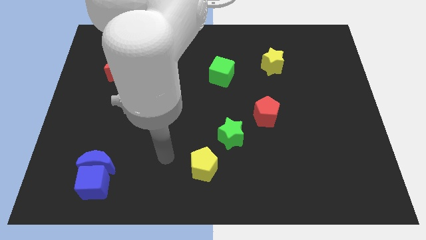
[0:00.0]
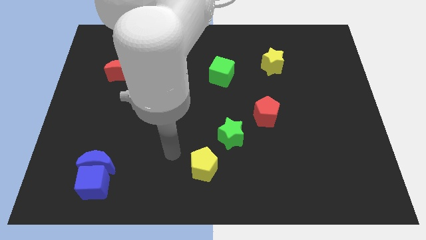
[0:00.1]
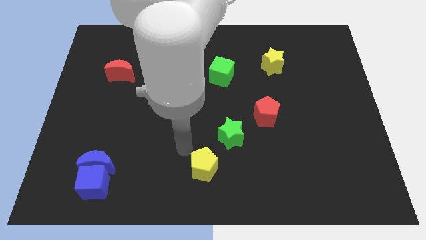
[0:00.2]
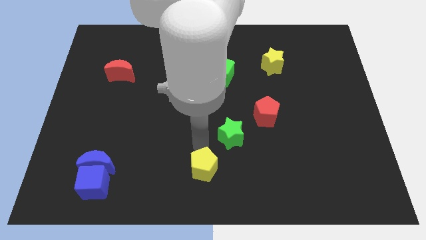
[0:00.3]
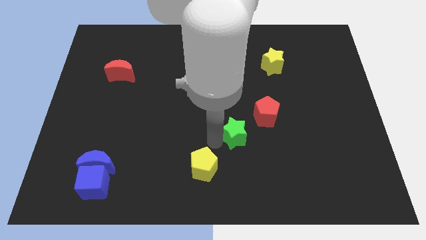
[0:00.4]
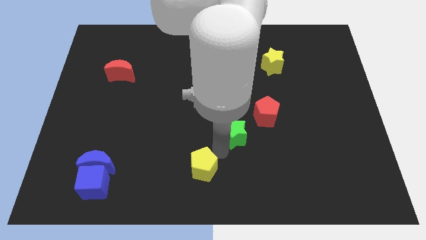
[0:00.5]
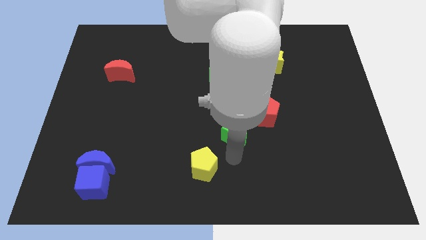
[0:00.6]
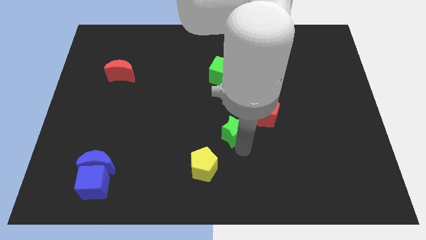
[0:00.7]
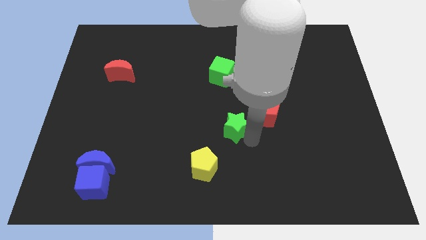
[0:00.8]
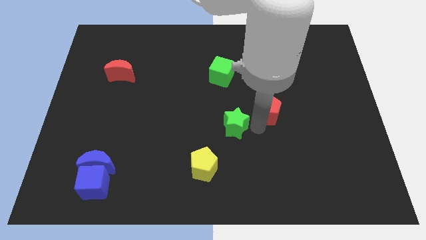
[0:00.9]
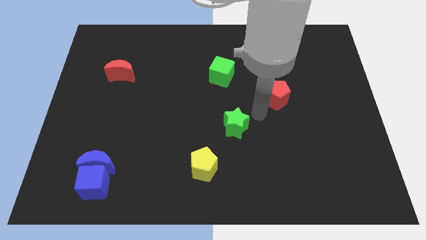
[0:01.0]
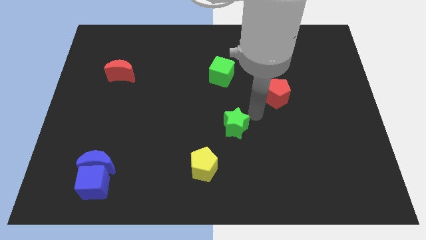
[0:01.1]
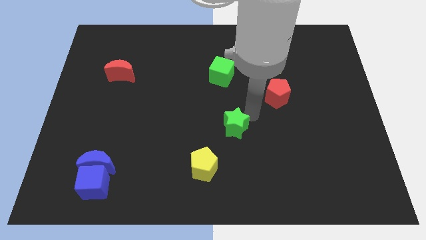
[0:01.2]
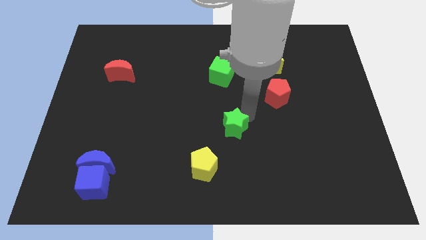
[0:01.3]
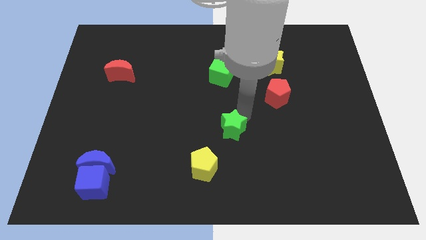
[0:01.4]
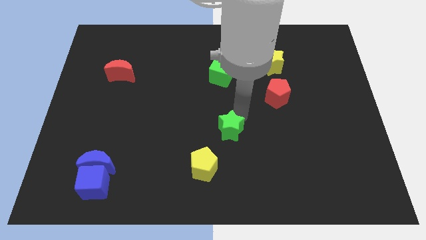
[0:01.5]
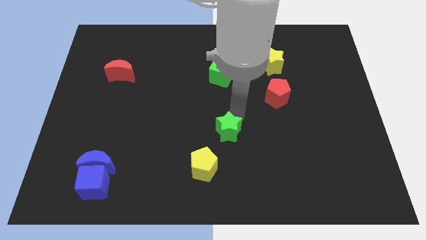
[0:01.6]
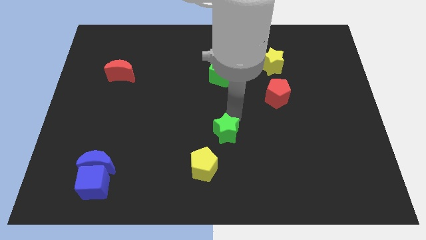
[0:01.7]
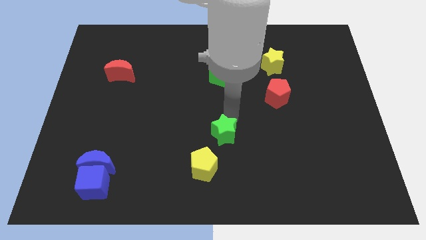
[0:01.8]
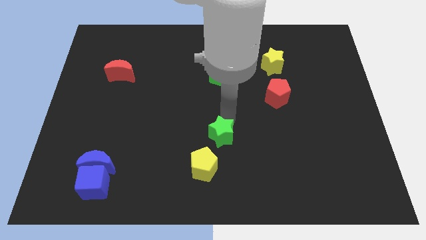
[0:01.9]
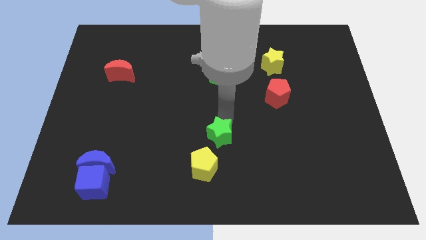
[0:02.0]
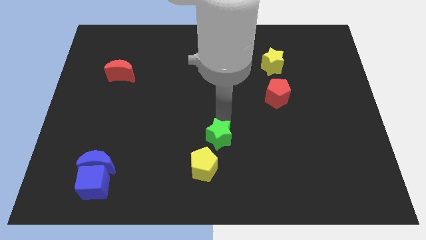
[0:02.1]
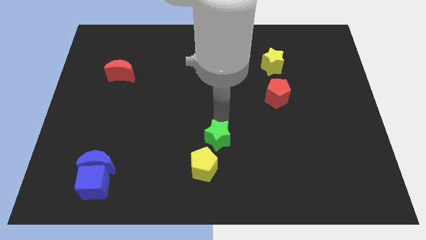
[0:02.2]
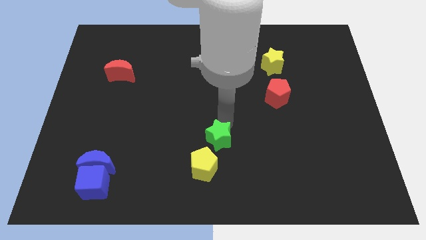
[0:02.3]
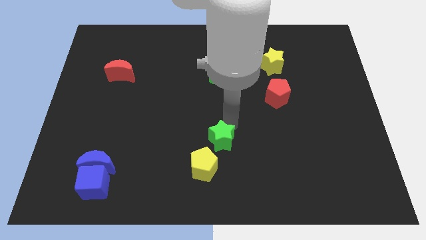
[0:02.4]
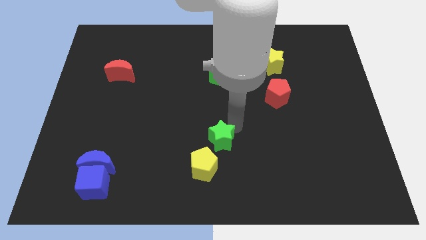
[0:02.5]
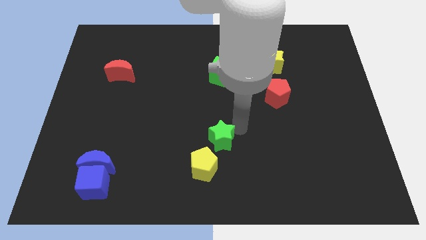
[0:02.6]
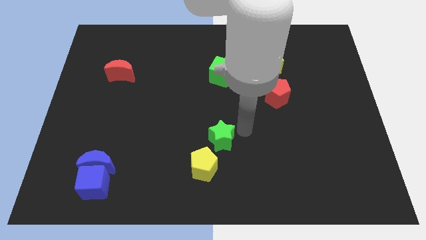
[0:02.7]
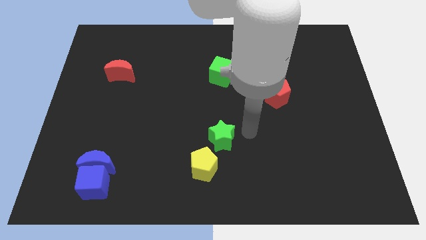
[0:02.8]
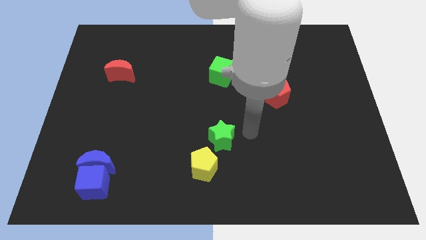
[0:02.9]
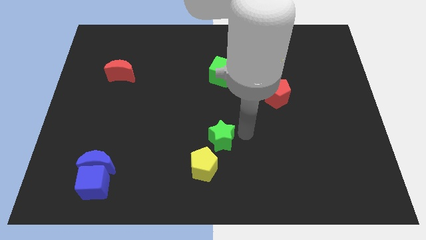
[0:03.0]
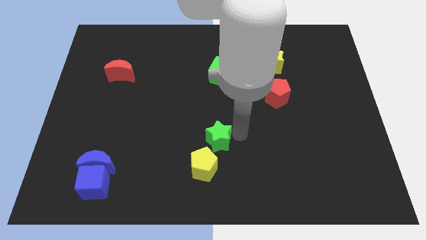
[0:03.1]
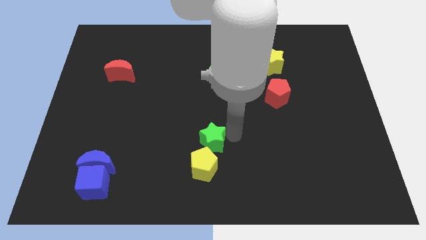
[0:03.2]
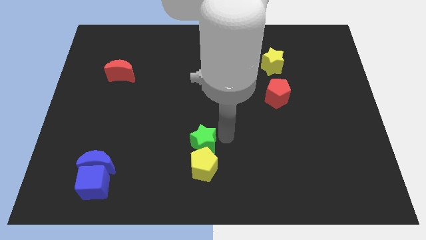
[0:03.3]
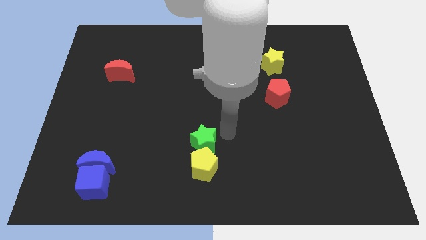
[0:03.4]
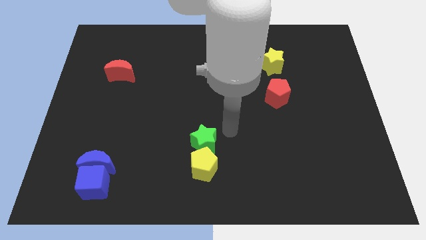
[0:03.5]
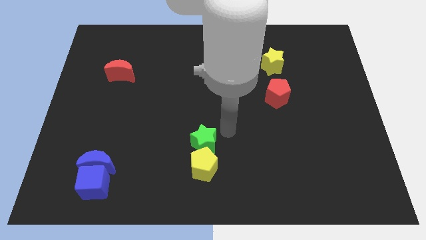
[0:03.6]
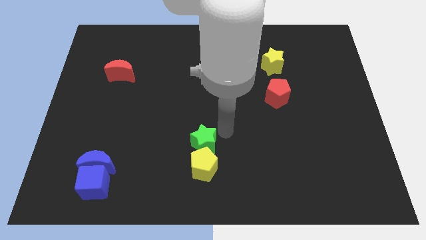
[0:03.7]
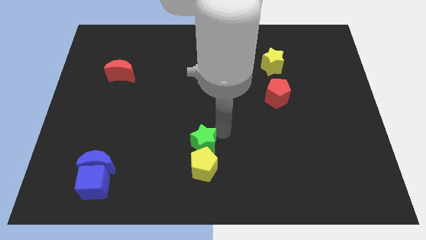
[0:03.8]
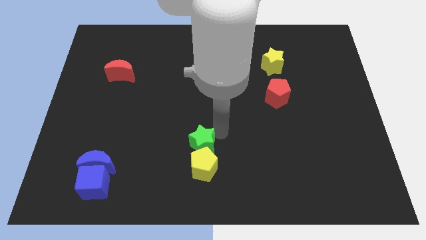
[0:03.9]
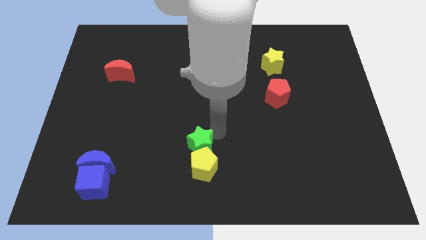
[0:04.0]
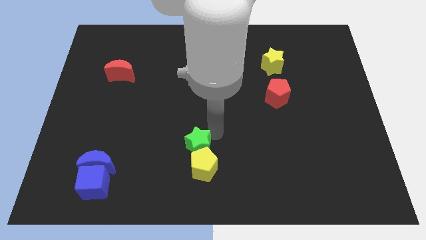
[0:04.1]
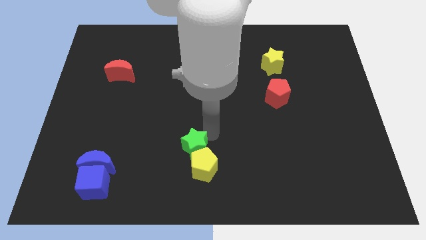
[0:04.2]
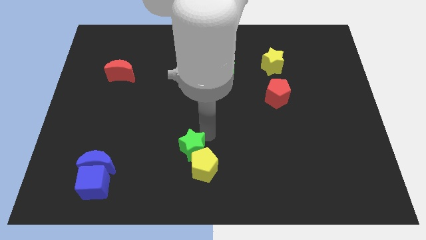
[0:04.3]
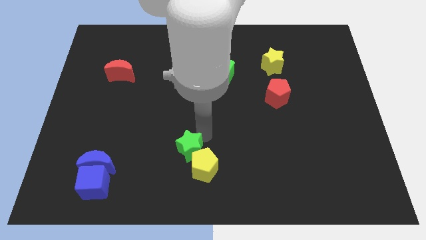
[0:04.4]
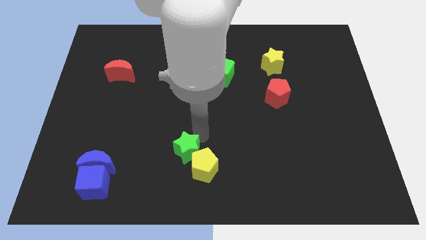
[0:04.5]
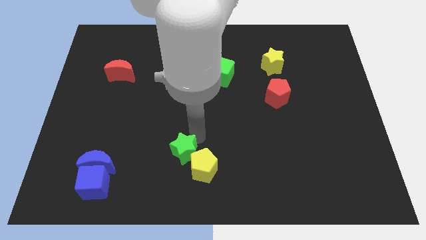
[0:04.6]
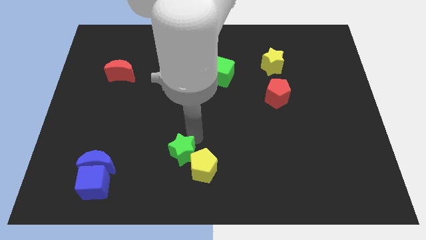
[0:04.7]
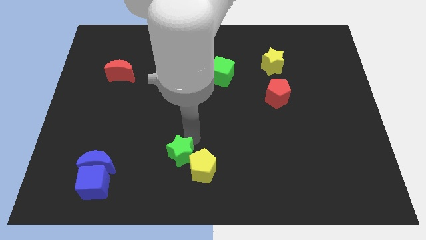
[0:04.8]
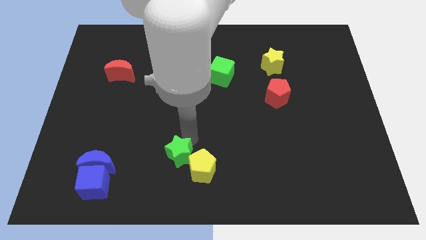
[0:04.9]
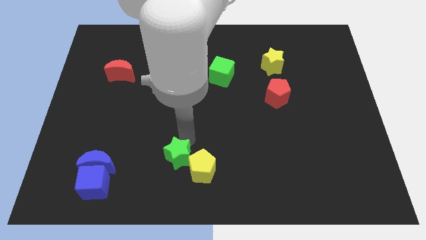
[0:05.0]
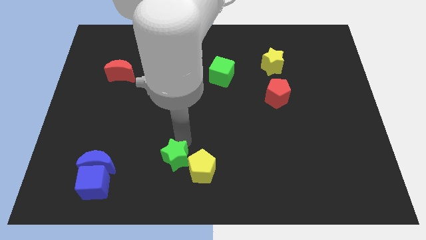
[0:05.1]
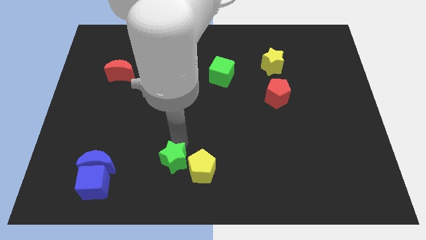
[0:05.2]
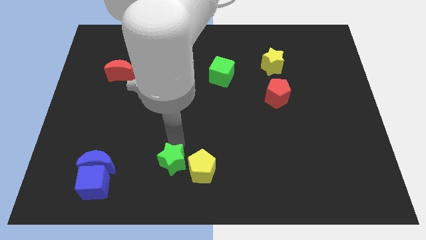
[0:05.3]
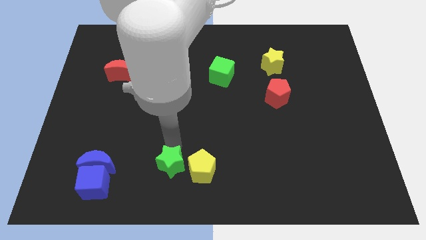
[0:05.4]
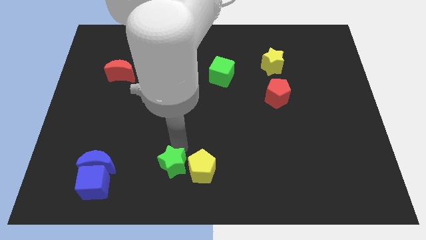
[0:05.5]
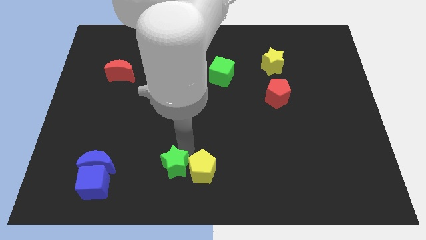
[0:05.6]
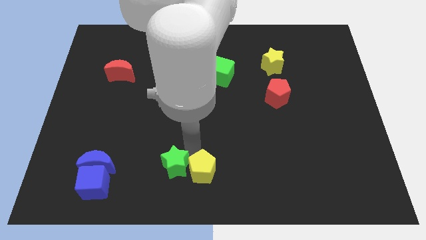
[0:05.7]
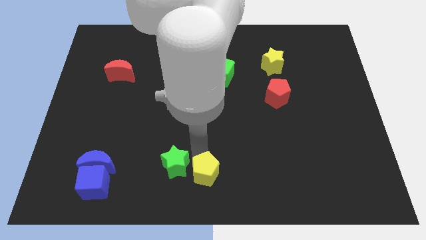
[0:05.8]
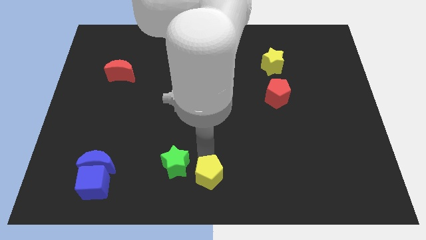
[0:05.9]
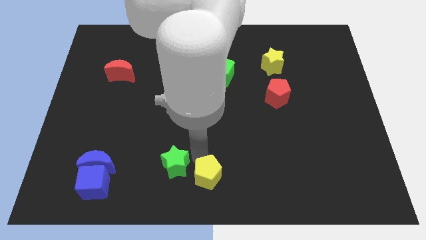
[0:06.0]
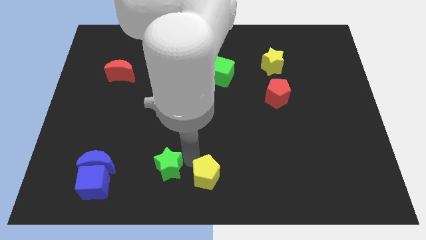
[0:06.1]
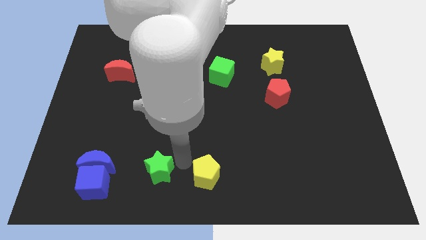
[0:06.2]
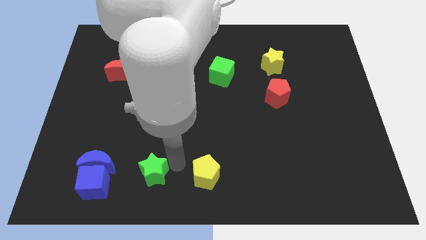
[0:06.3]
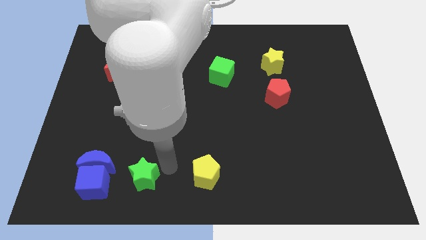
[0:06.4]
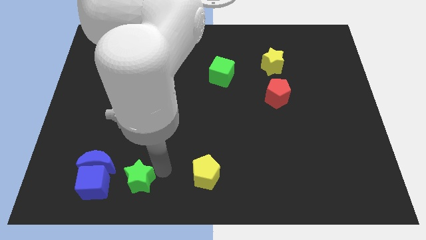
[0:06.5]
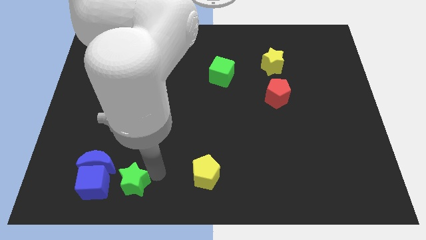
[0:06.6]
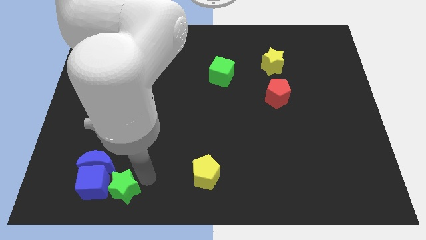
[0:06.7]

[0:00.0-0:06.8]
push the green star to the blue cube

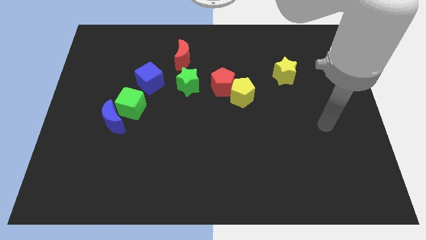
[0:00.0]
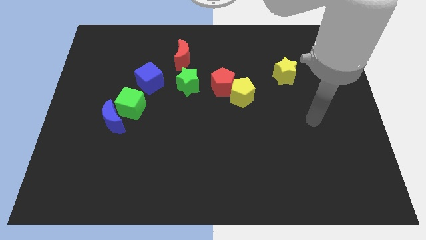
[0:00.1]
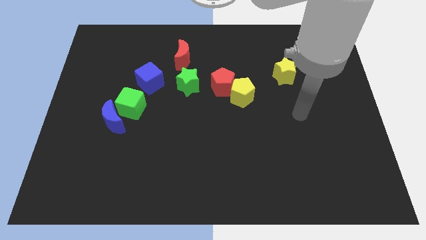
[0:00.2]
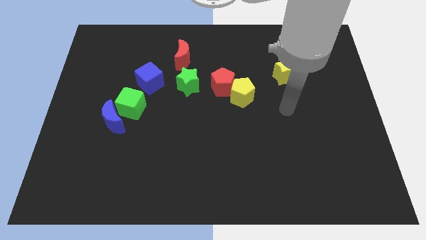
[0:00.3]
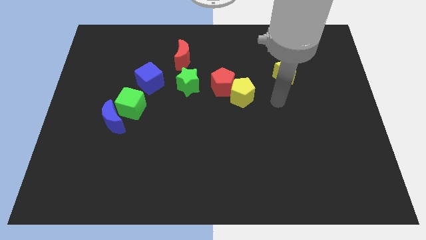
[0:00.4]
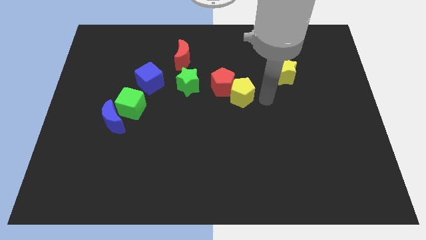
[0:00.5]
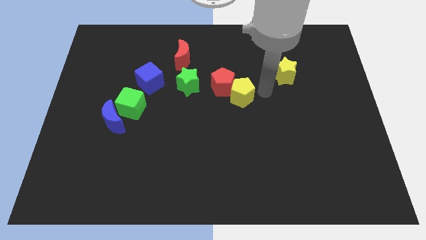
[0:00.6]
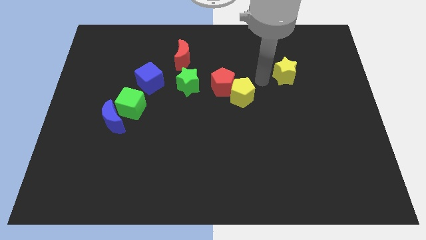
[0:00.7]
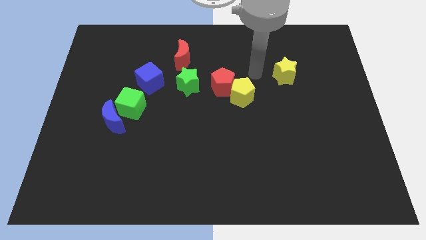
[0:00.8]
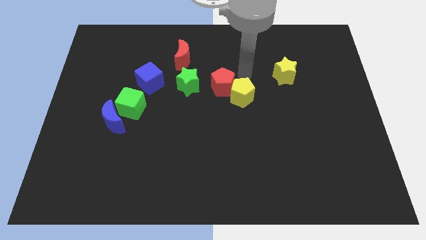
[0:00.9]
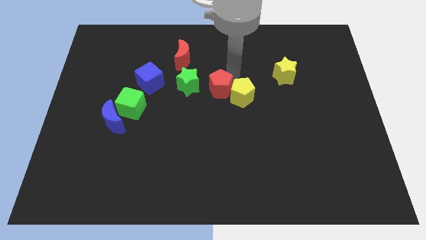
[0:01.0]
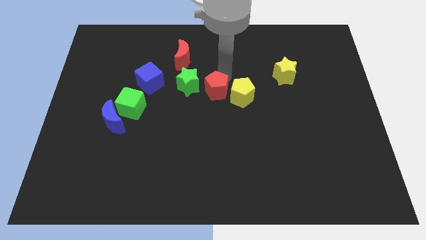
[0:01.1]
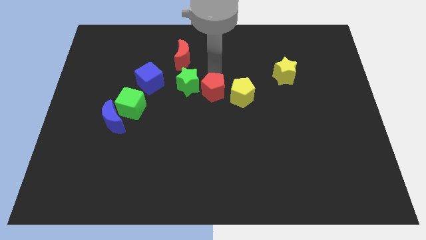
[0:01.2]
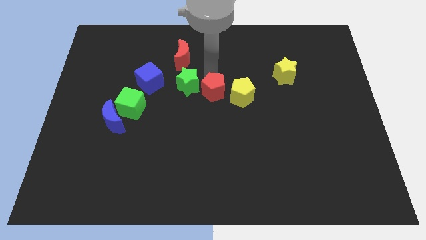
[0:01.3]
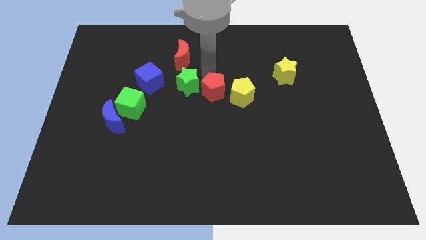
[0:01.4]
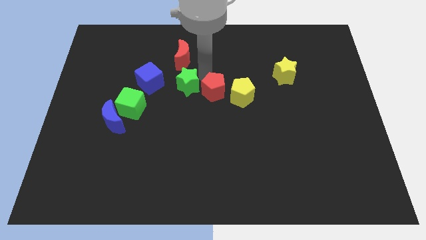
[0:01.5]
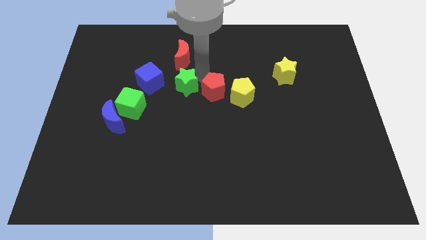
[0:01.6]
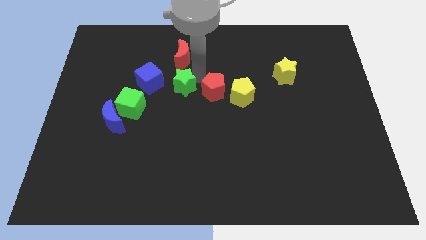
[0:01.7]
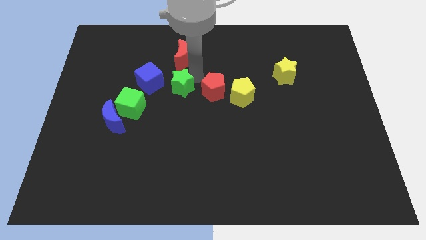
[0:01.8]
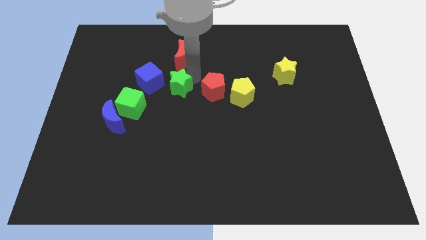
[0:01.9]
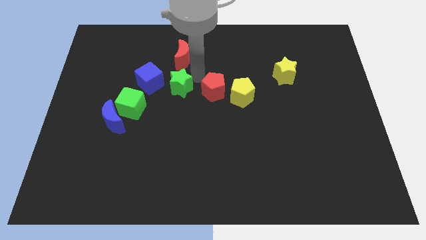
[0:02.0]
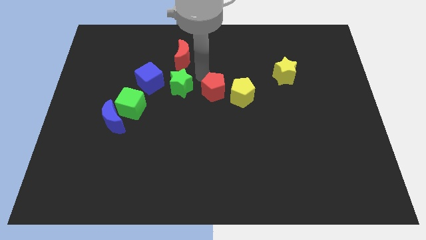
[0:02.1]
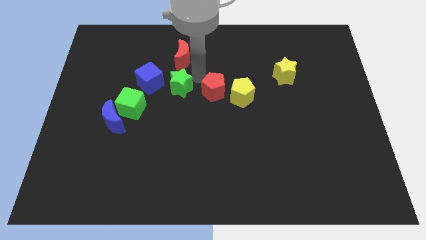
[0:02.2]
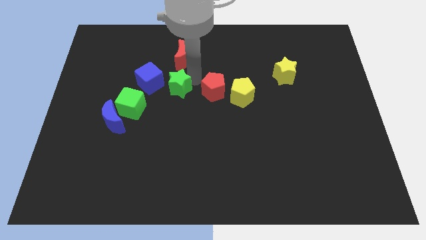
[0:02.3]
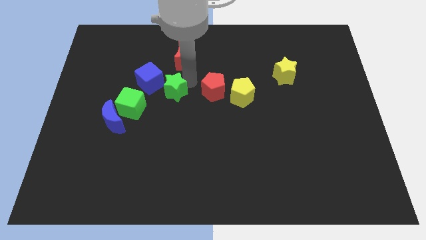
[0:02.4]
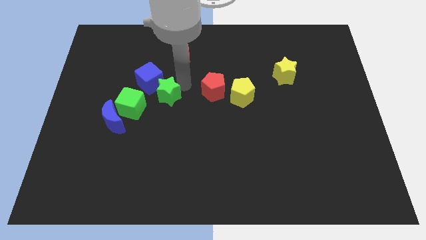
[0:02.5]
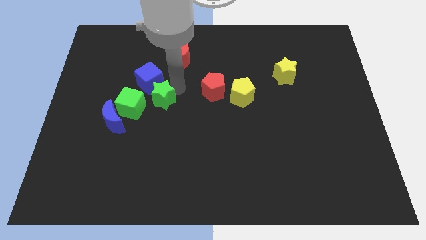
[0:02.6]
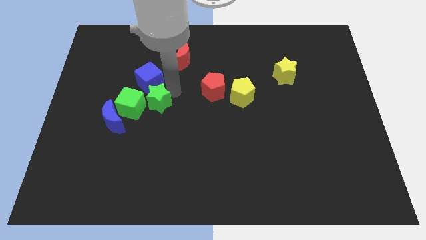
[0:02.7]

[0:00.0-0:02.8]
slide the green star to the green cube
